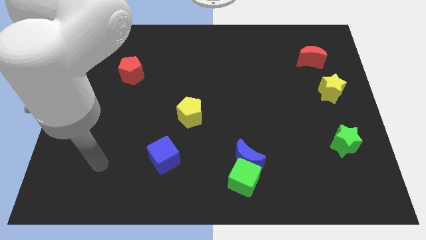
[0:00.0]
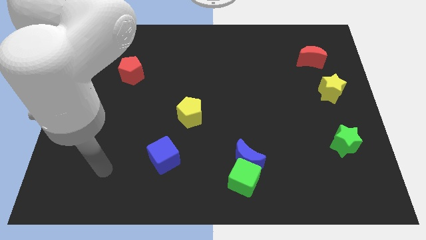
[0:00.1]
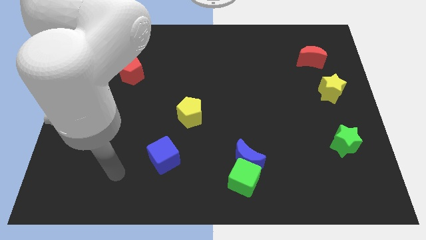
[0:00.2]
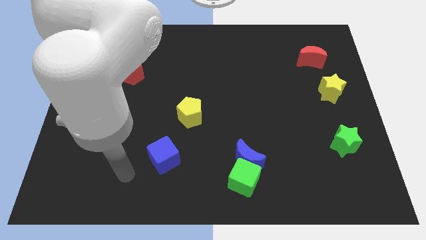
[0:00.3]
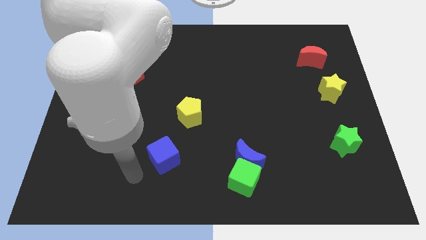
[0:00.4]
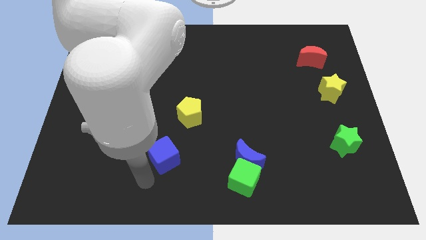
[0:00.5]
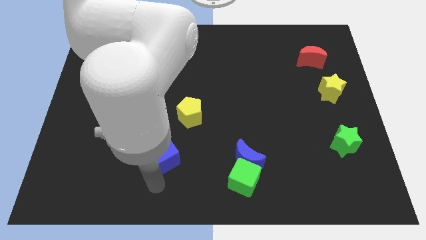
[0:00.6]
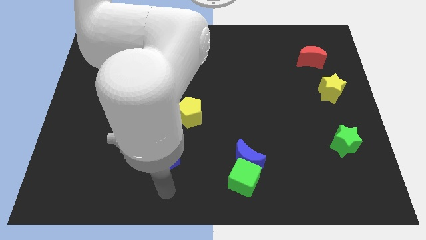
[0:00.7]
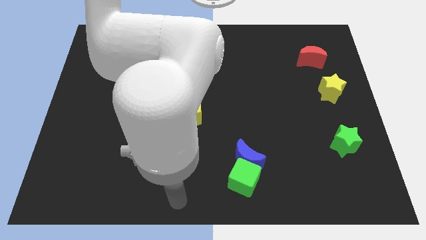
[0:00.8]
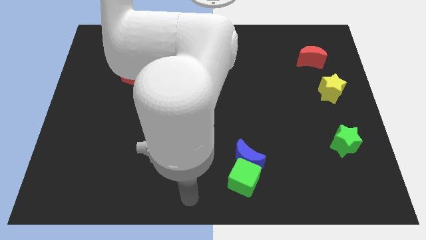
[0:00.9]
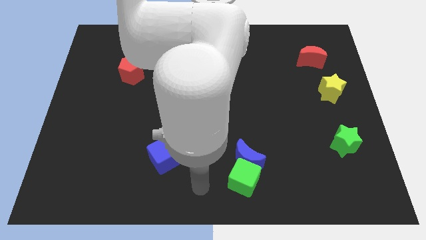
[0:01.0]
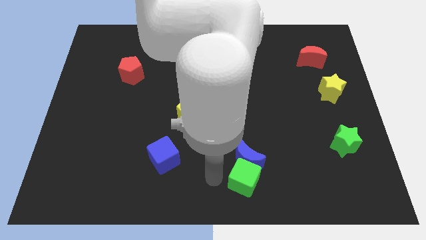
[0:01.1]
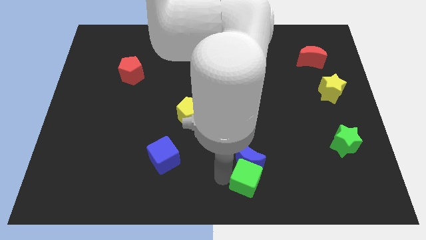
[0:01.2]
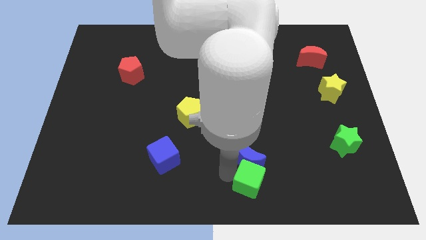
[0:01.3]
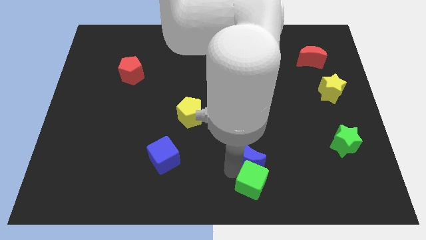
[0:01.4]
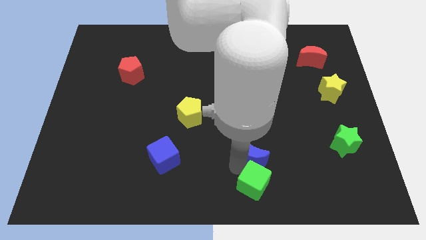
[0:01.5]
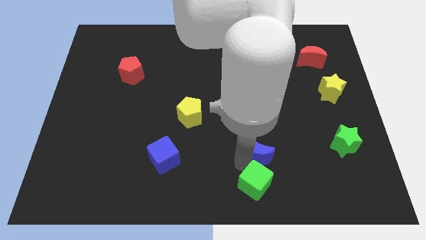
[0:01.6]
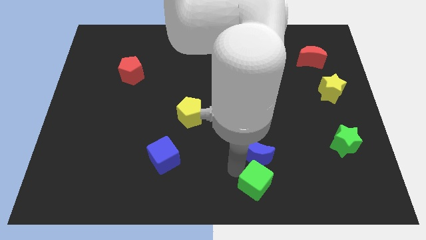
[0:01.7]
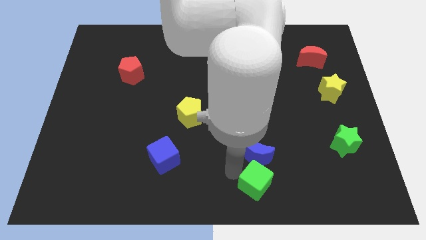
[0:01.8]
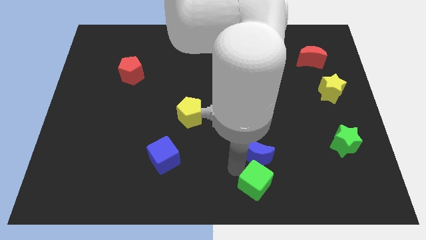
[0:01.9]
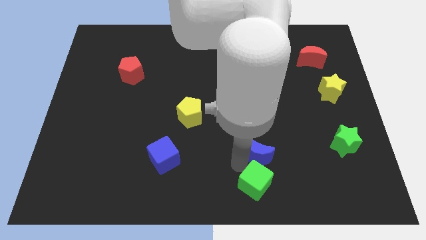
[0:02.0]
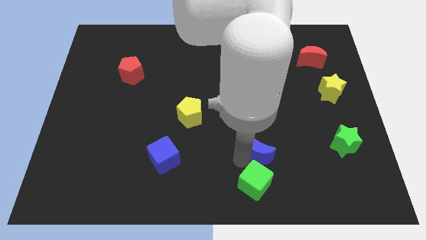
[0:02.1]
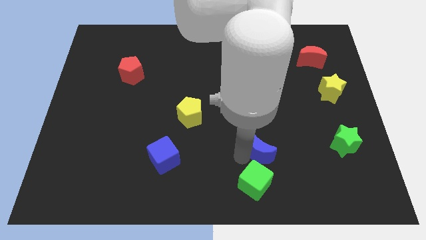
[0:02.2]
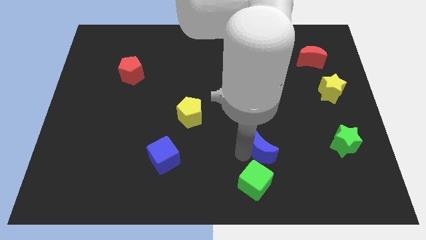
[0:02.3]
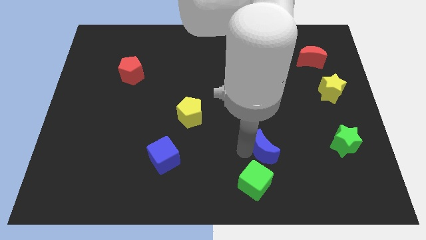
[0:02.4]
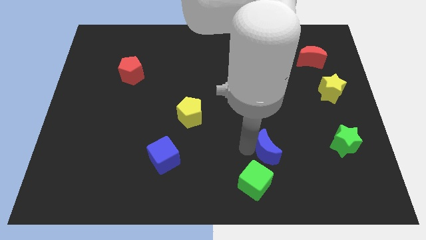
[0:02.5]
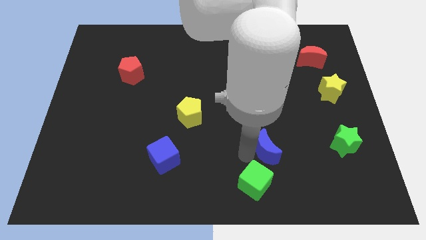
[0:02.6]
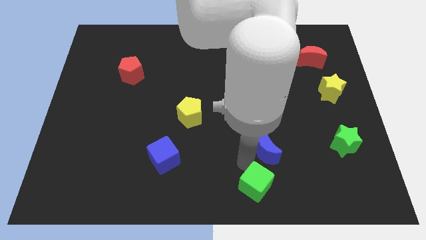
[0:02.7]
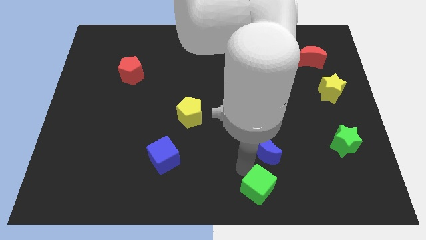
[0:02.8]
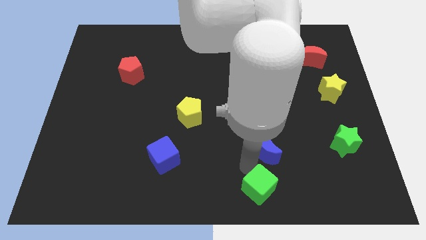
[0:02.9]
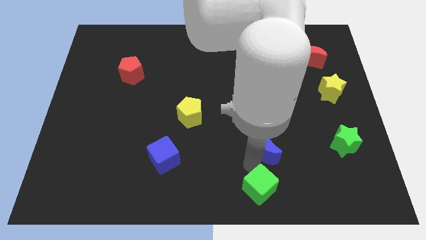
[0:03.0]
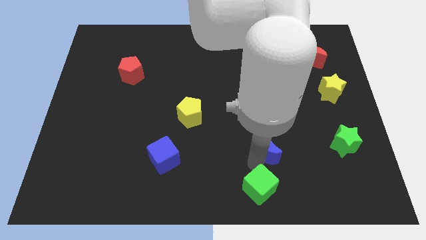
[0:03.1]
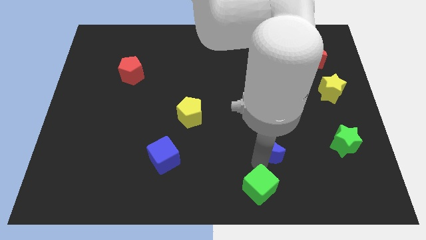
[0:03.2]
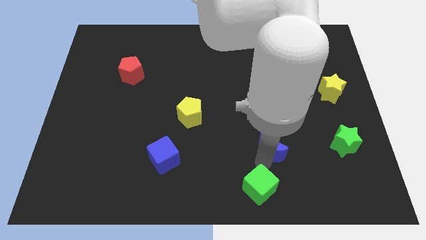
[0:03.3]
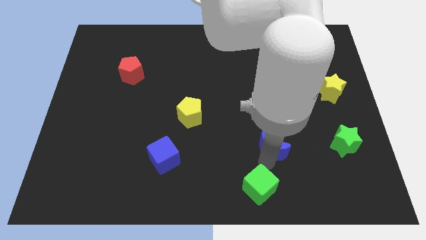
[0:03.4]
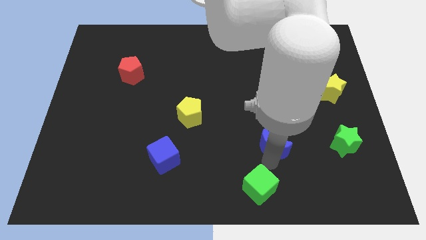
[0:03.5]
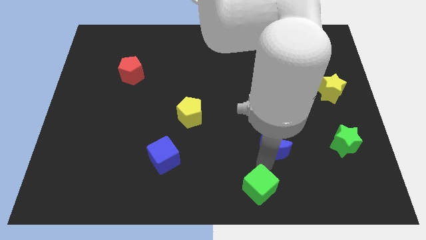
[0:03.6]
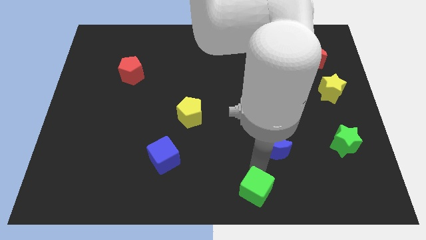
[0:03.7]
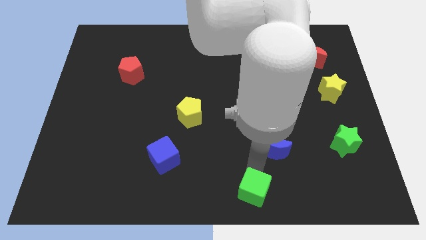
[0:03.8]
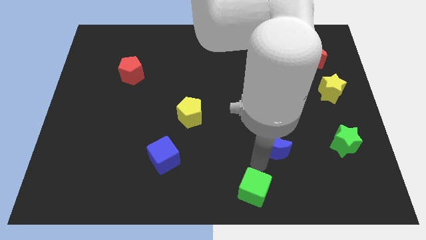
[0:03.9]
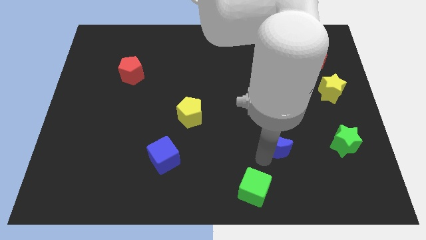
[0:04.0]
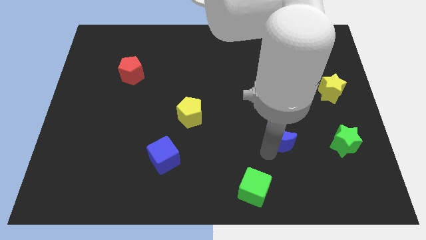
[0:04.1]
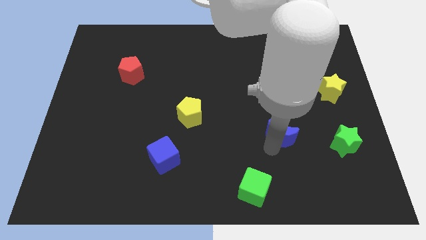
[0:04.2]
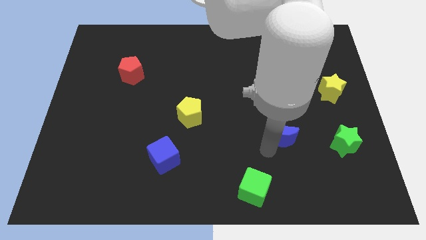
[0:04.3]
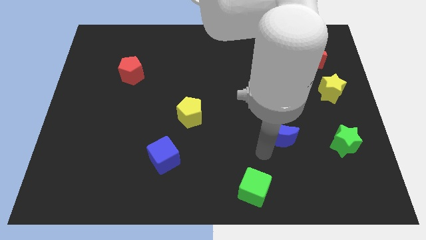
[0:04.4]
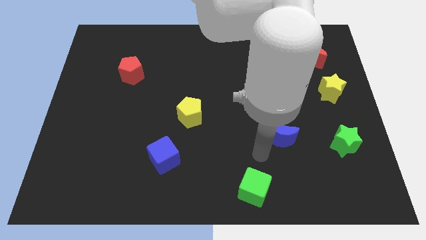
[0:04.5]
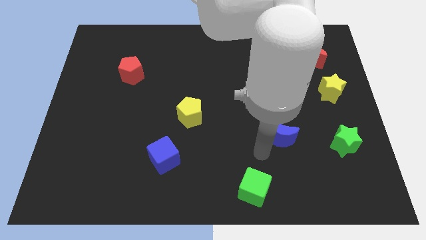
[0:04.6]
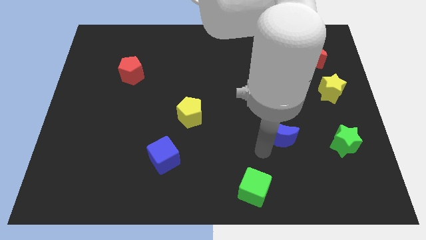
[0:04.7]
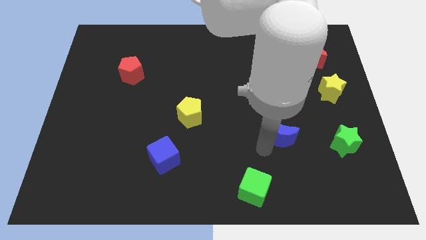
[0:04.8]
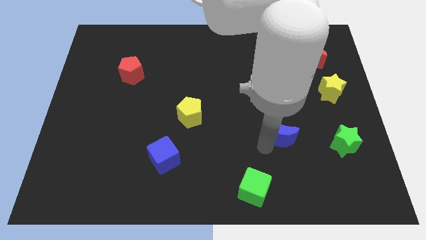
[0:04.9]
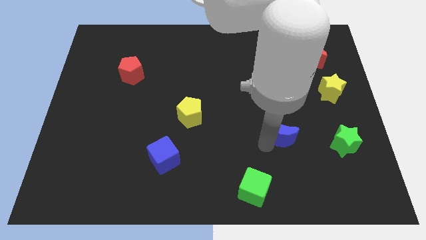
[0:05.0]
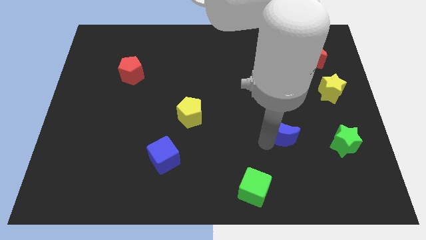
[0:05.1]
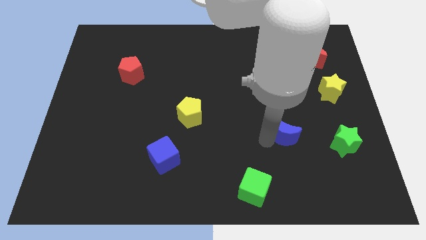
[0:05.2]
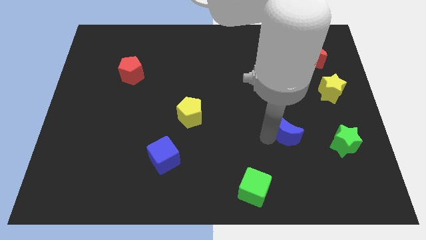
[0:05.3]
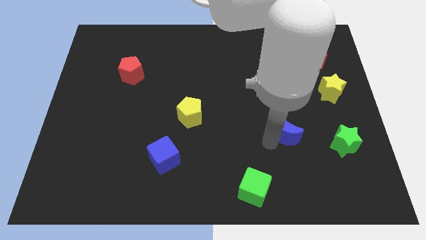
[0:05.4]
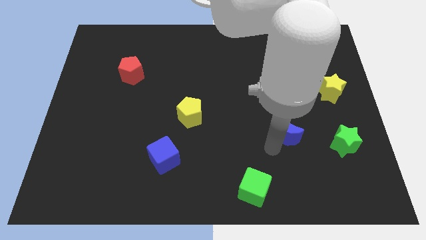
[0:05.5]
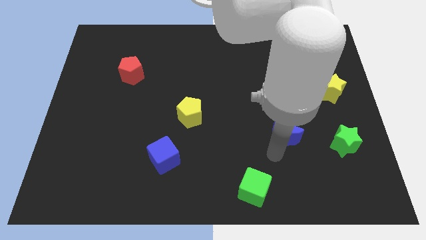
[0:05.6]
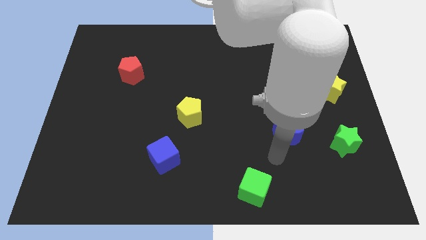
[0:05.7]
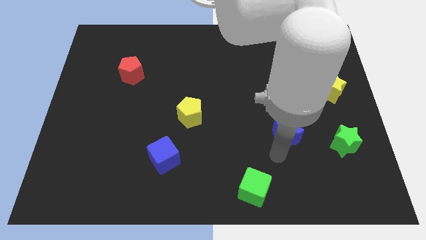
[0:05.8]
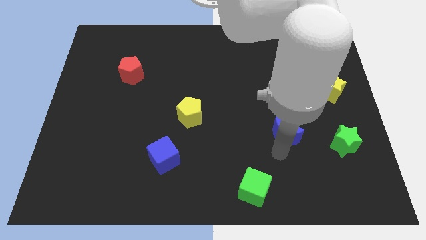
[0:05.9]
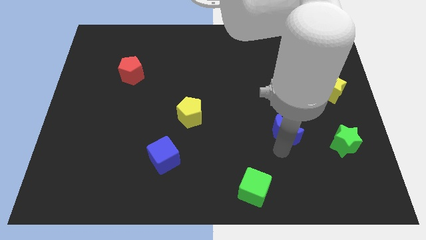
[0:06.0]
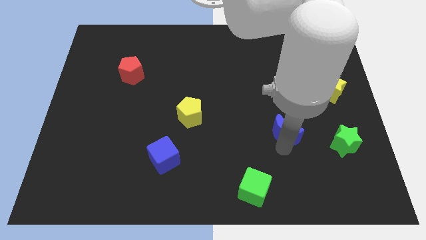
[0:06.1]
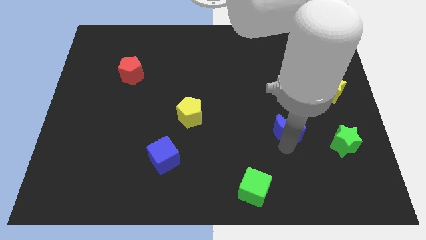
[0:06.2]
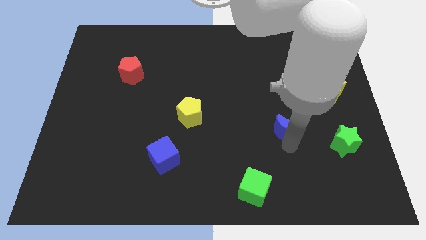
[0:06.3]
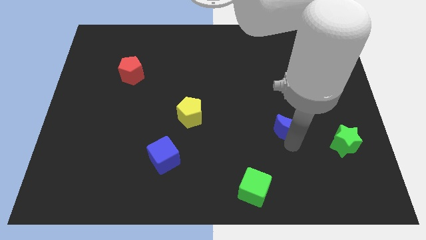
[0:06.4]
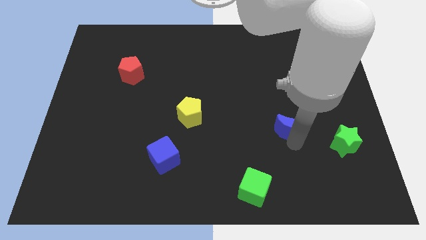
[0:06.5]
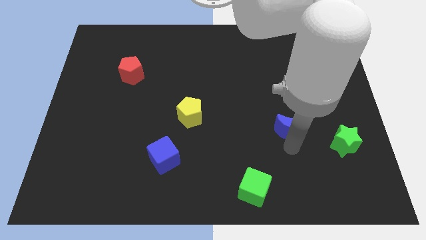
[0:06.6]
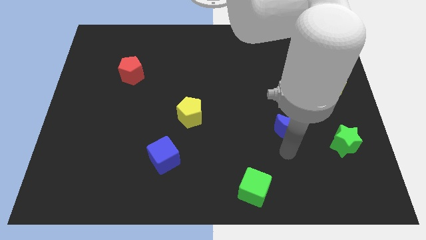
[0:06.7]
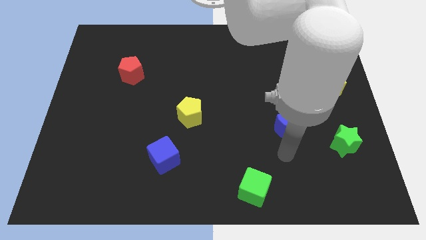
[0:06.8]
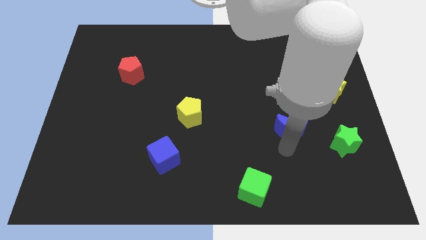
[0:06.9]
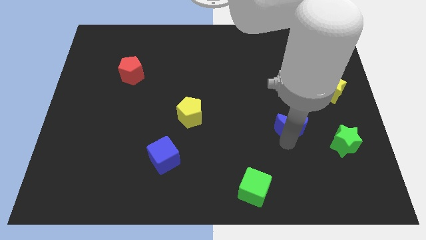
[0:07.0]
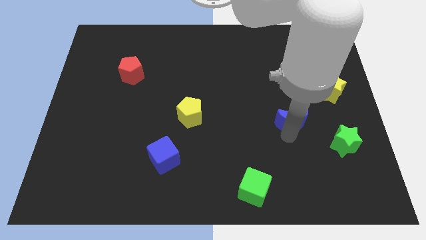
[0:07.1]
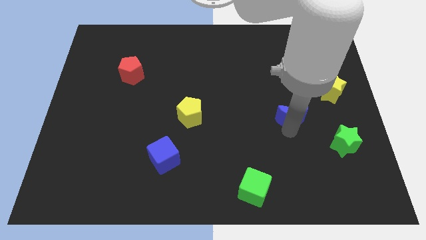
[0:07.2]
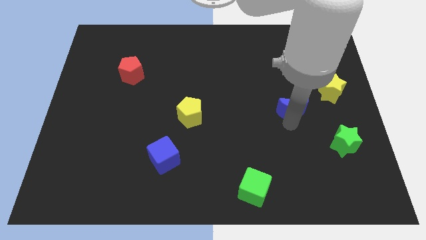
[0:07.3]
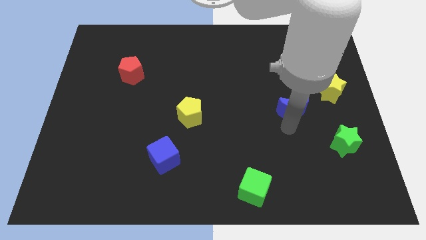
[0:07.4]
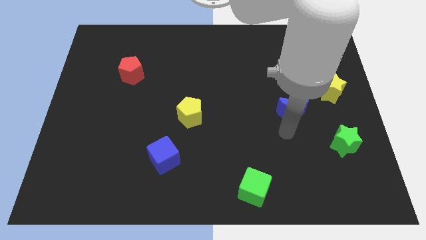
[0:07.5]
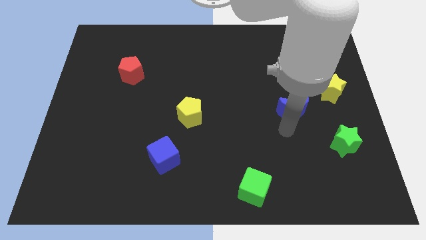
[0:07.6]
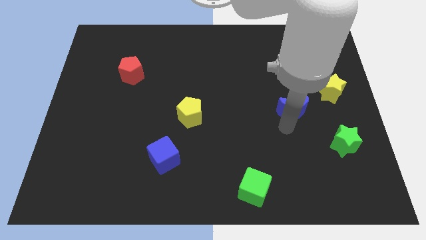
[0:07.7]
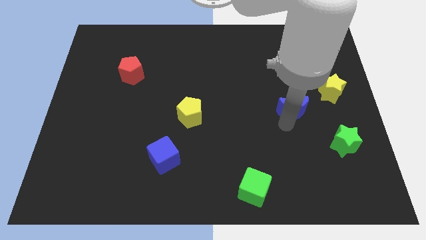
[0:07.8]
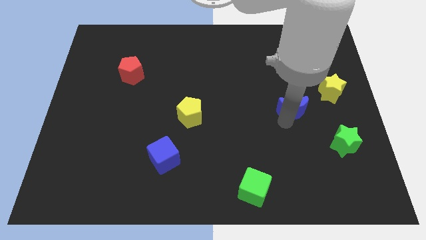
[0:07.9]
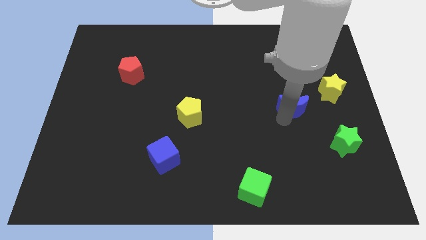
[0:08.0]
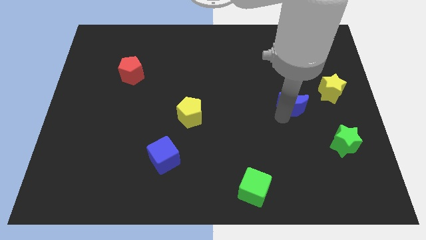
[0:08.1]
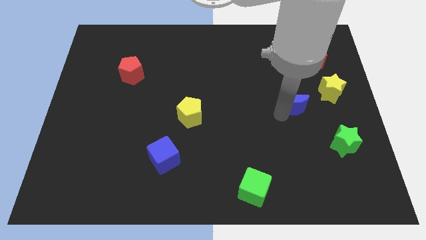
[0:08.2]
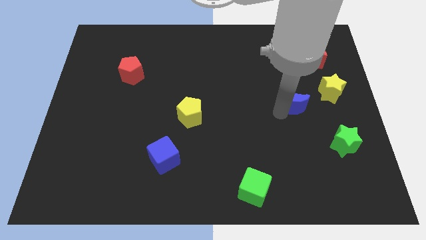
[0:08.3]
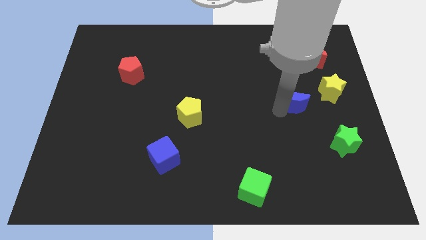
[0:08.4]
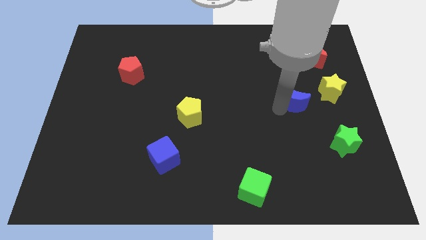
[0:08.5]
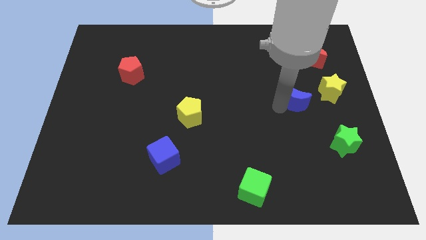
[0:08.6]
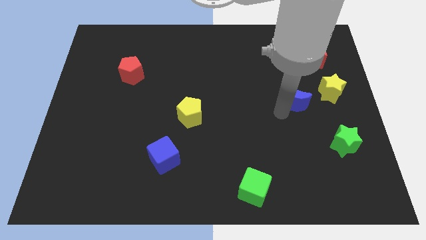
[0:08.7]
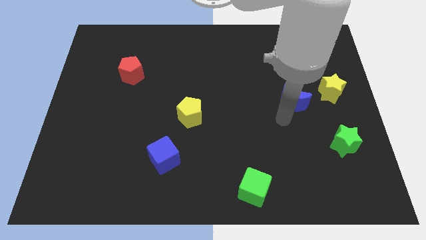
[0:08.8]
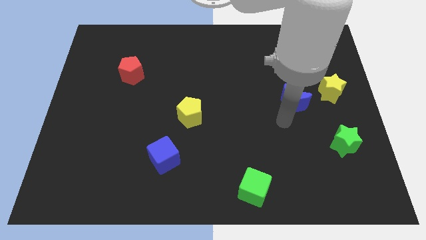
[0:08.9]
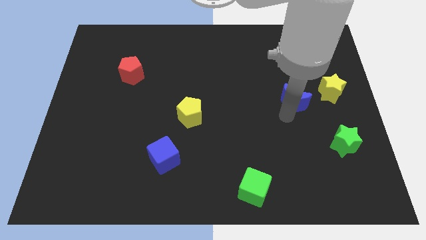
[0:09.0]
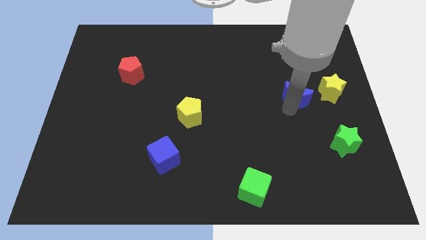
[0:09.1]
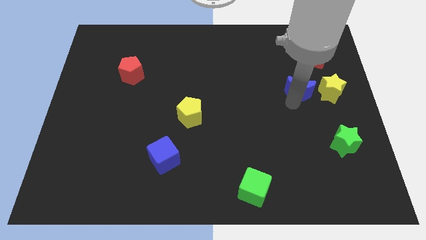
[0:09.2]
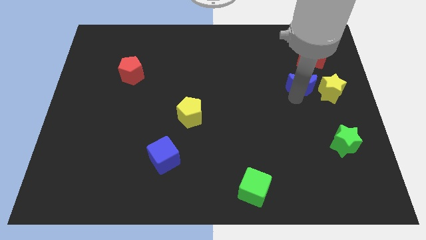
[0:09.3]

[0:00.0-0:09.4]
slide the blue moon diagonally up and to the left of the yellow star
